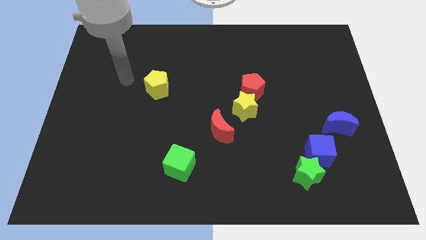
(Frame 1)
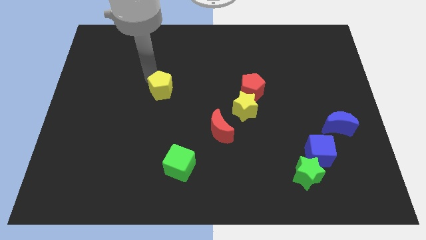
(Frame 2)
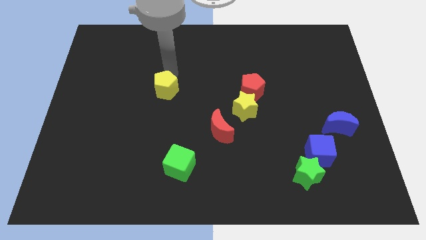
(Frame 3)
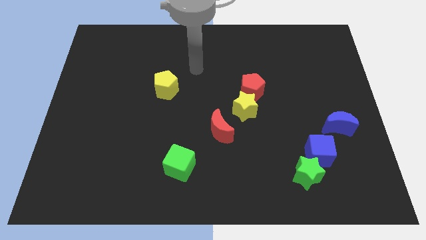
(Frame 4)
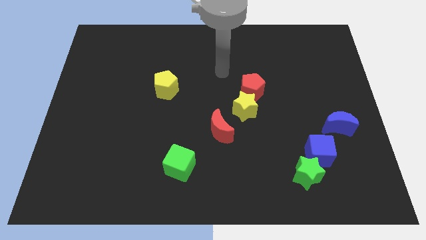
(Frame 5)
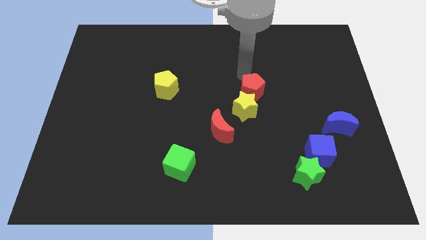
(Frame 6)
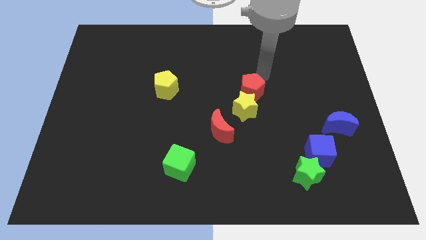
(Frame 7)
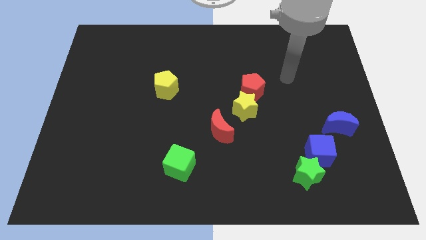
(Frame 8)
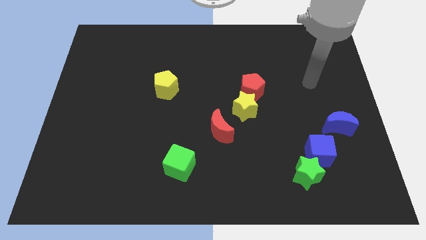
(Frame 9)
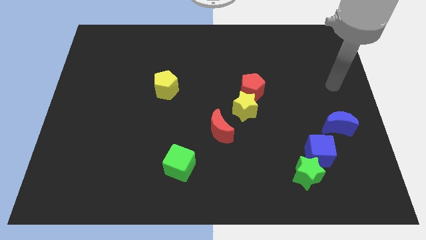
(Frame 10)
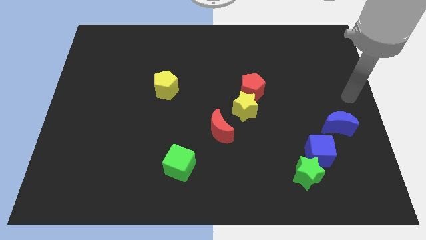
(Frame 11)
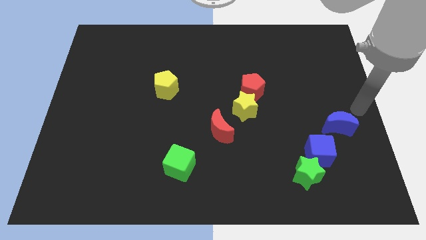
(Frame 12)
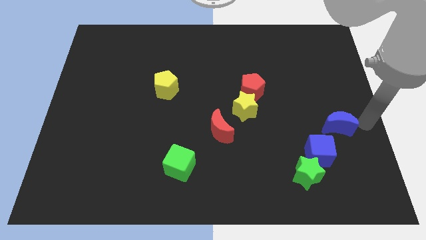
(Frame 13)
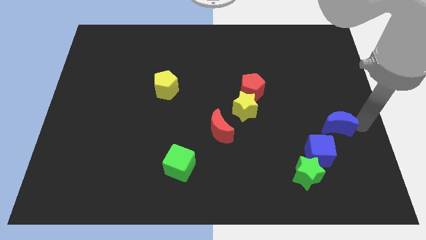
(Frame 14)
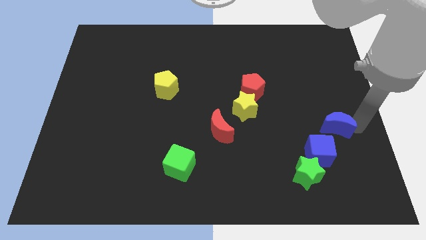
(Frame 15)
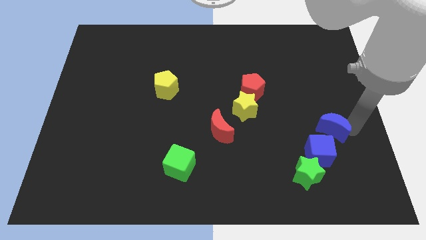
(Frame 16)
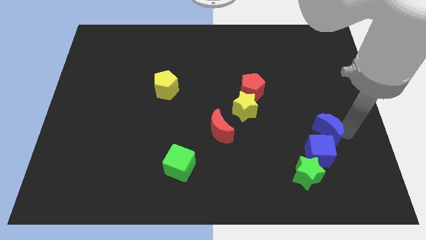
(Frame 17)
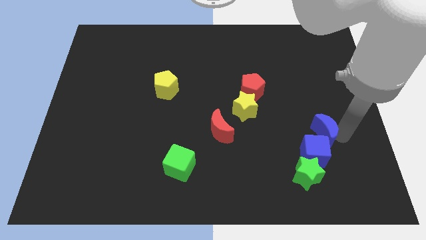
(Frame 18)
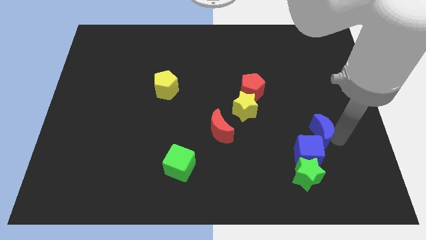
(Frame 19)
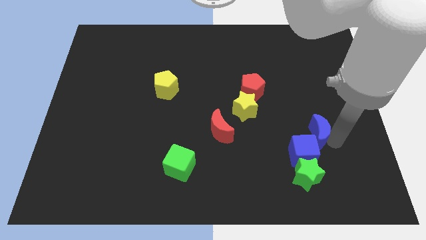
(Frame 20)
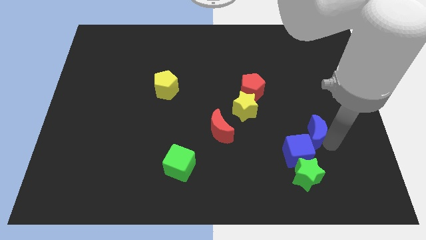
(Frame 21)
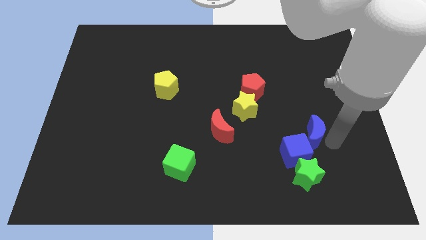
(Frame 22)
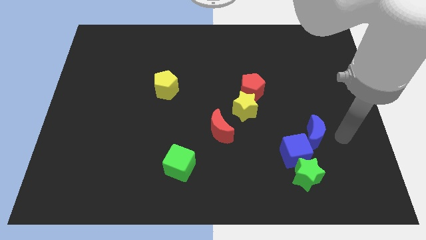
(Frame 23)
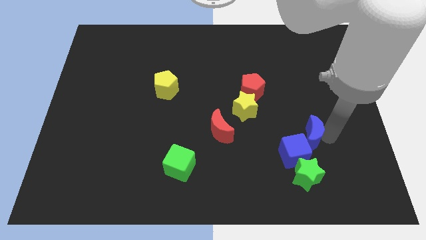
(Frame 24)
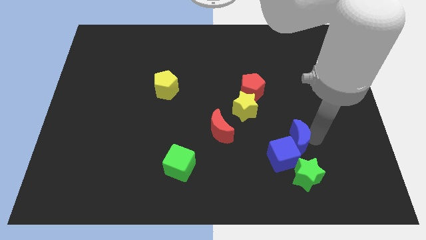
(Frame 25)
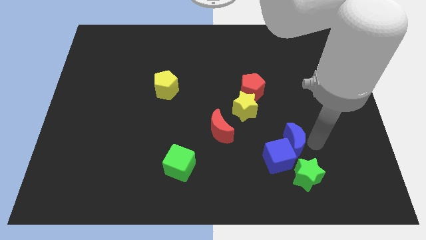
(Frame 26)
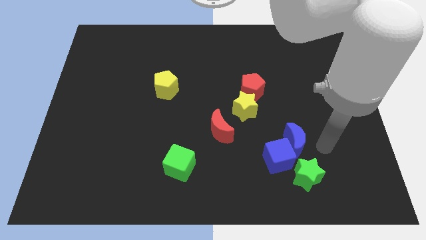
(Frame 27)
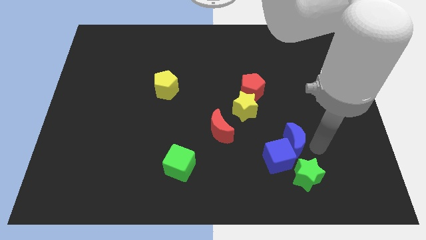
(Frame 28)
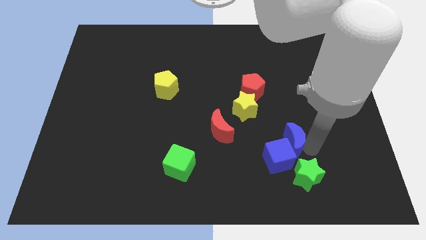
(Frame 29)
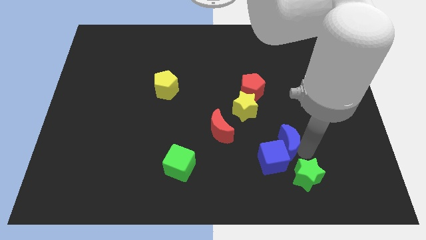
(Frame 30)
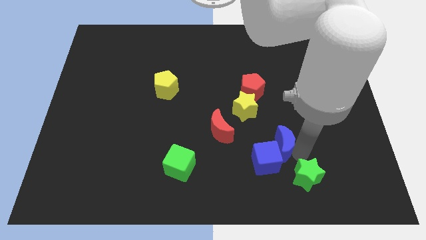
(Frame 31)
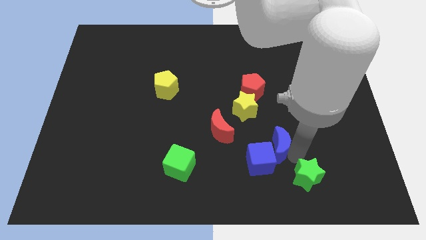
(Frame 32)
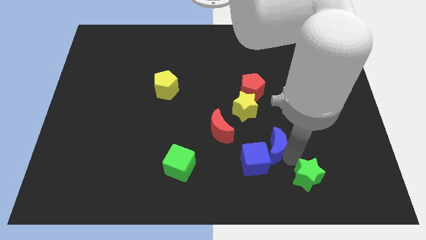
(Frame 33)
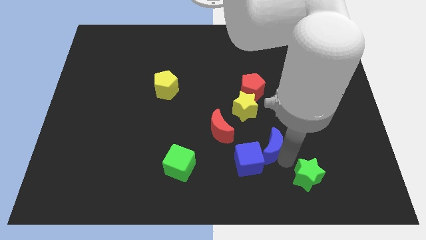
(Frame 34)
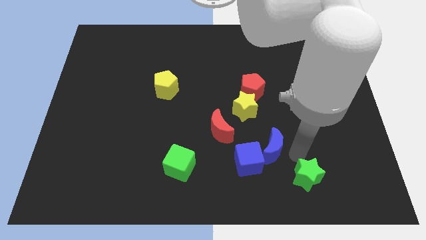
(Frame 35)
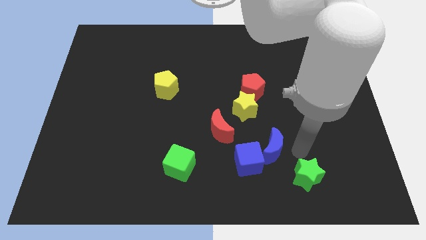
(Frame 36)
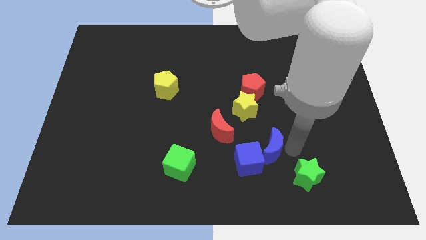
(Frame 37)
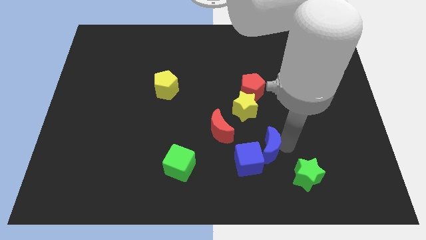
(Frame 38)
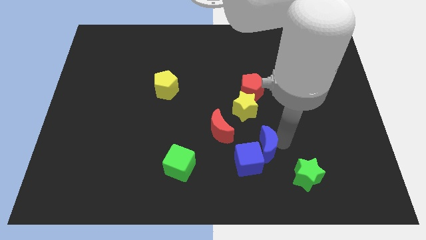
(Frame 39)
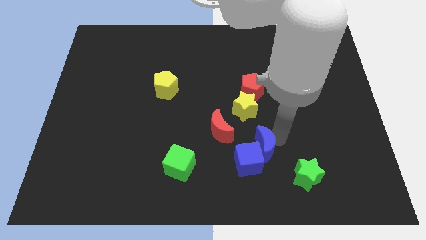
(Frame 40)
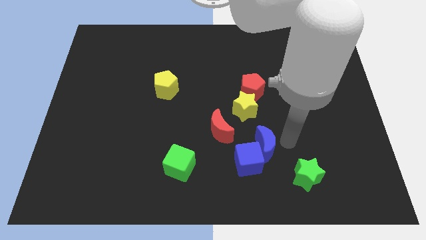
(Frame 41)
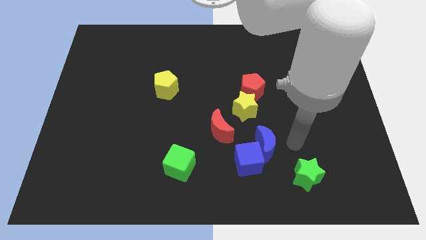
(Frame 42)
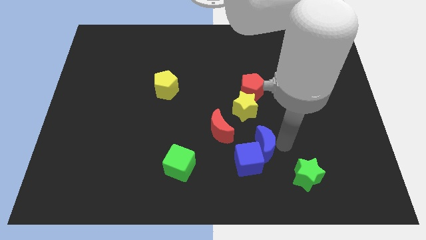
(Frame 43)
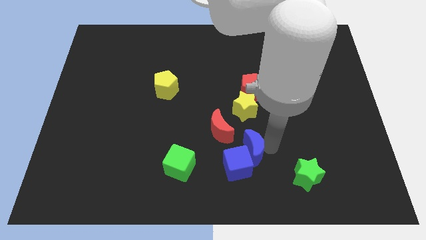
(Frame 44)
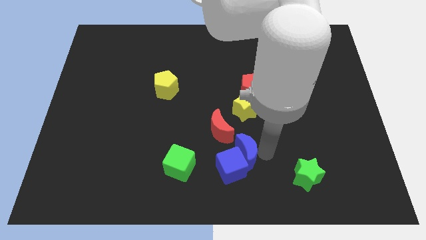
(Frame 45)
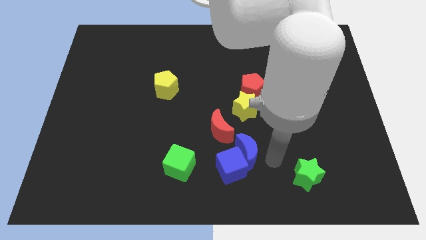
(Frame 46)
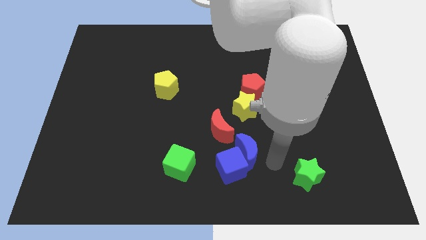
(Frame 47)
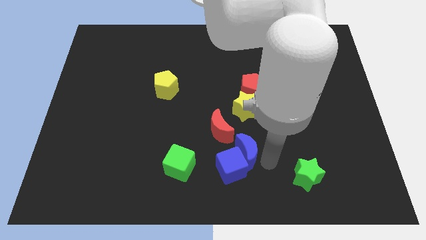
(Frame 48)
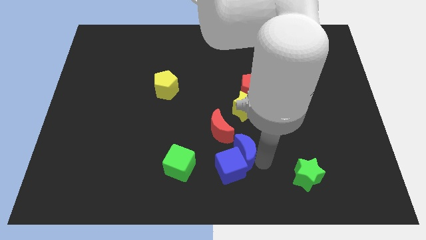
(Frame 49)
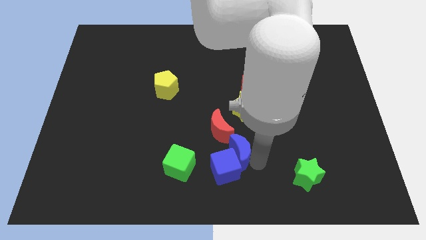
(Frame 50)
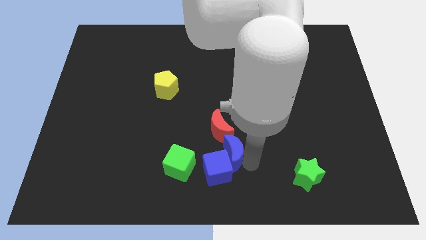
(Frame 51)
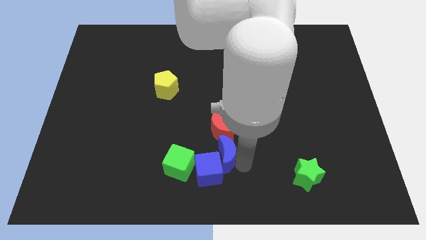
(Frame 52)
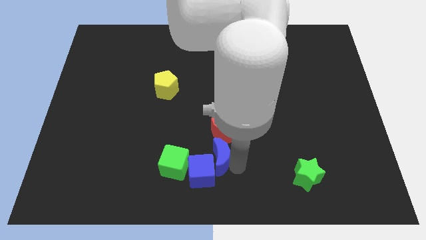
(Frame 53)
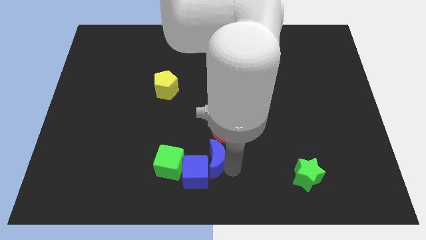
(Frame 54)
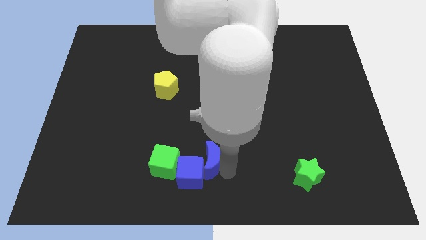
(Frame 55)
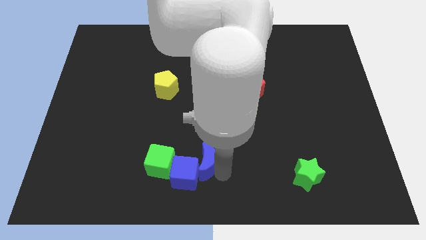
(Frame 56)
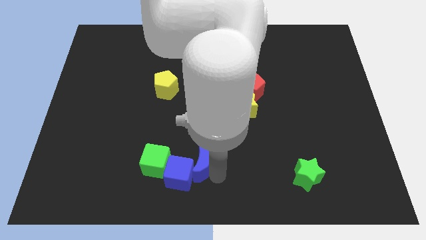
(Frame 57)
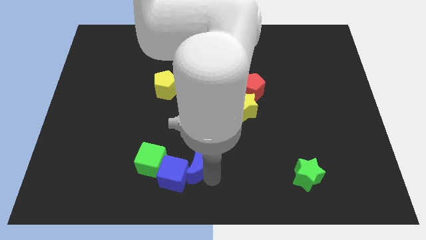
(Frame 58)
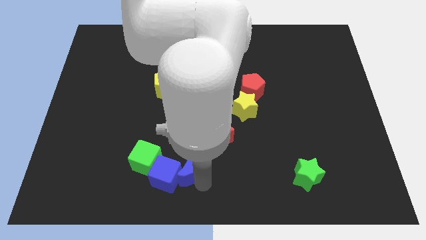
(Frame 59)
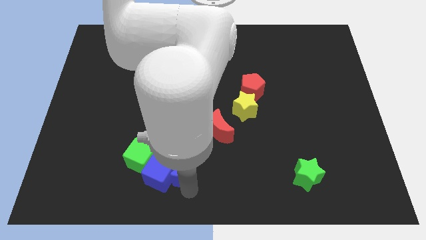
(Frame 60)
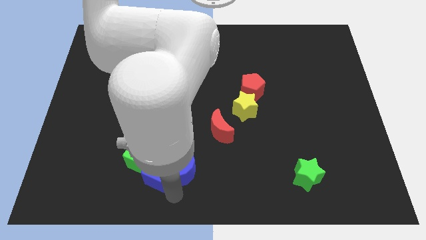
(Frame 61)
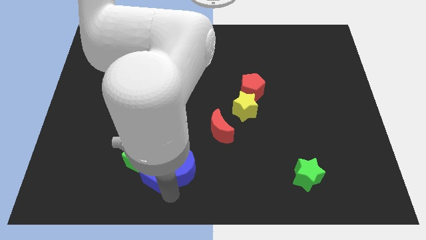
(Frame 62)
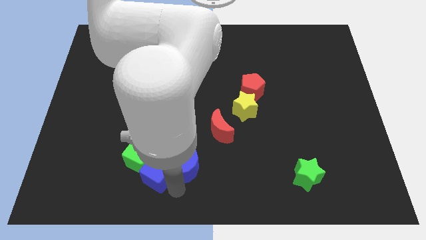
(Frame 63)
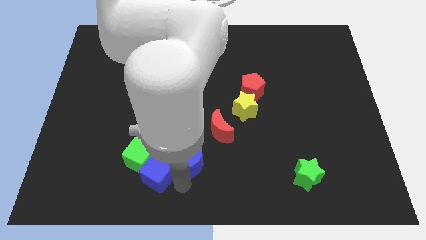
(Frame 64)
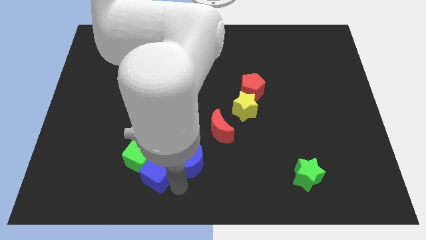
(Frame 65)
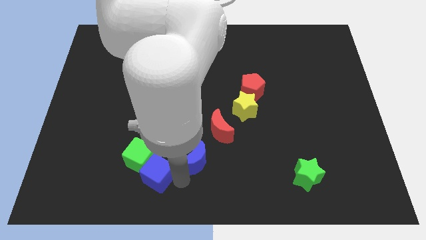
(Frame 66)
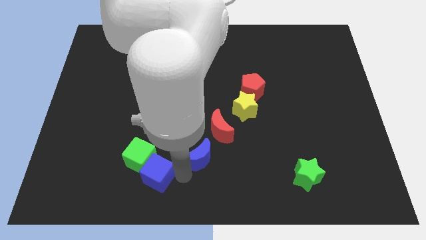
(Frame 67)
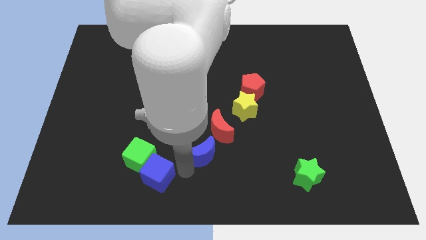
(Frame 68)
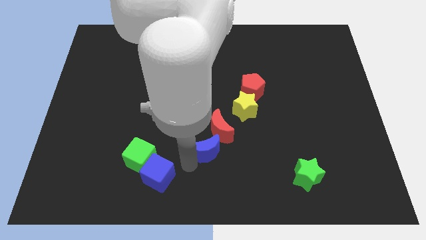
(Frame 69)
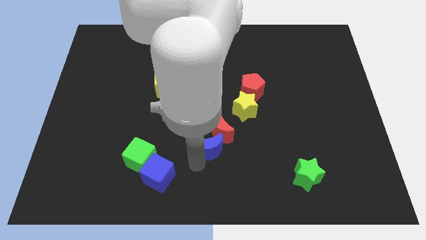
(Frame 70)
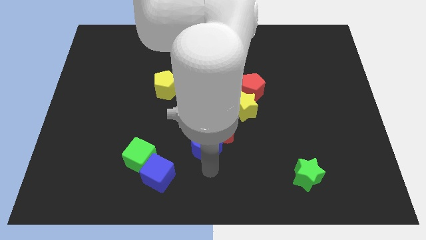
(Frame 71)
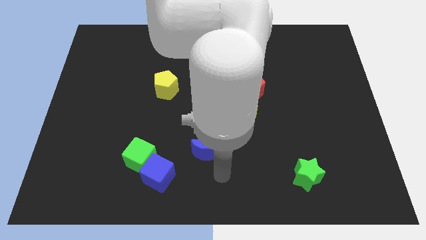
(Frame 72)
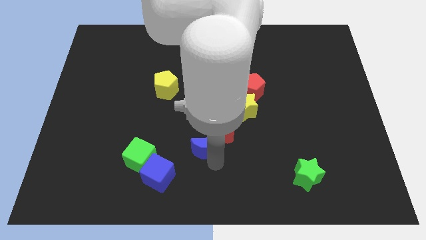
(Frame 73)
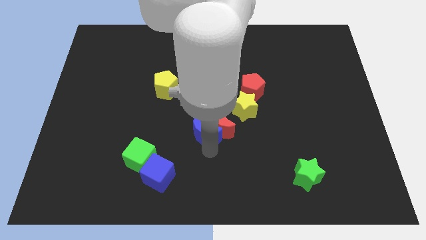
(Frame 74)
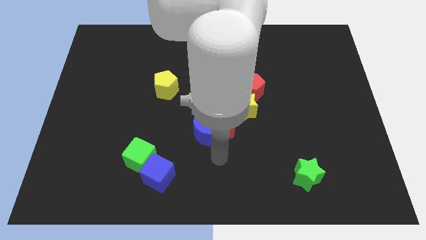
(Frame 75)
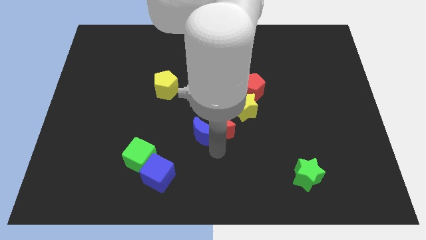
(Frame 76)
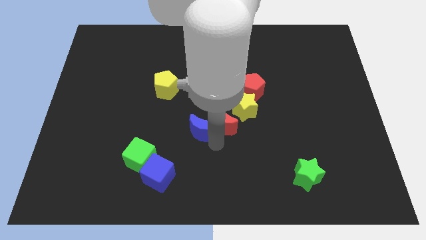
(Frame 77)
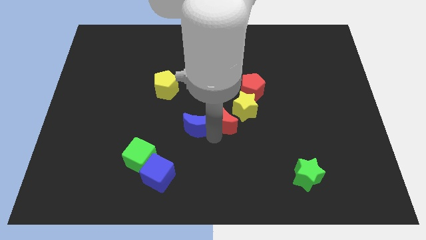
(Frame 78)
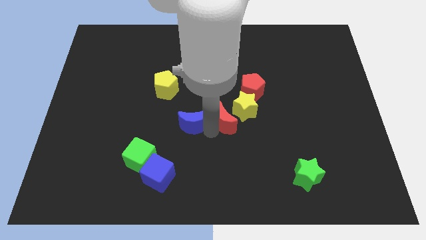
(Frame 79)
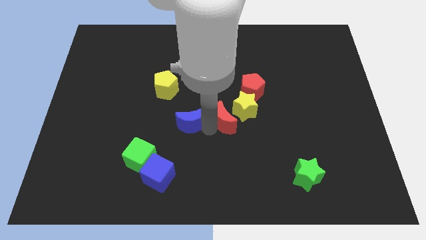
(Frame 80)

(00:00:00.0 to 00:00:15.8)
put the blue moon to the bottom right of the yellow pentagon
